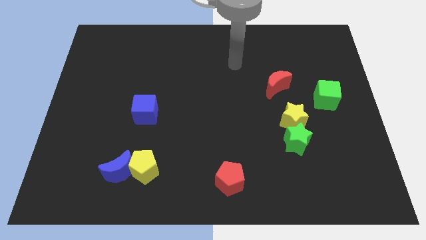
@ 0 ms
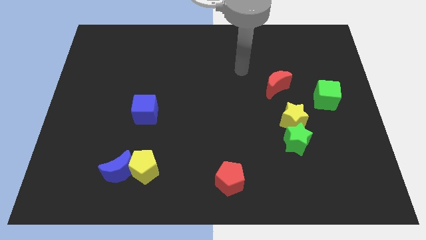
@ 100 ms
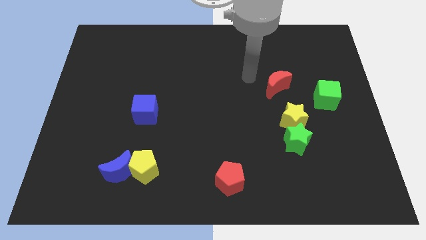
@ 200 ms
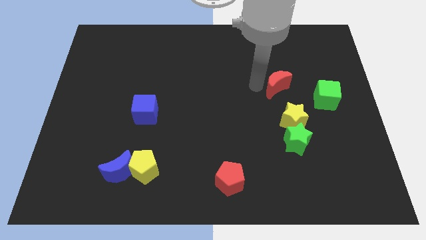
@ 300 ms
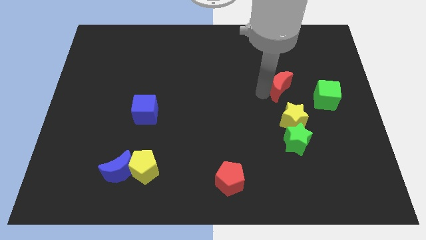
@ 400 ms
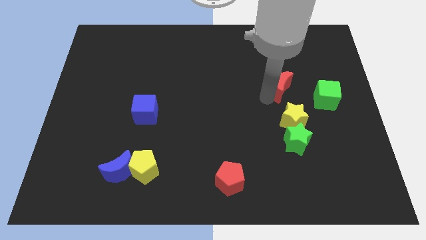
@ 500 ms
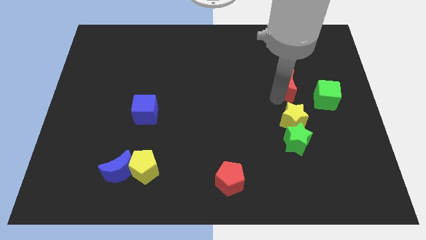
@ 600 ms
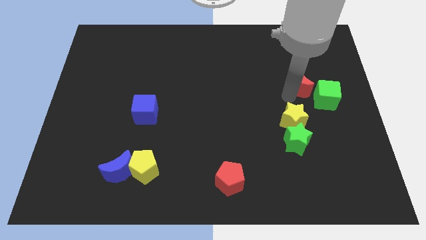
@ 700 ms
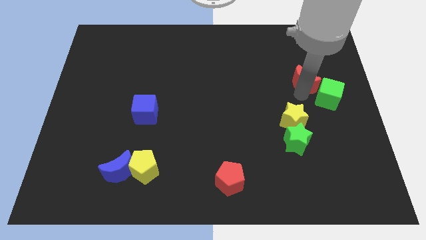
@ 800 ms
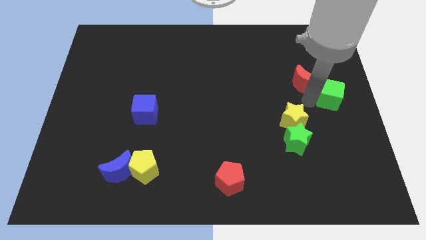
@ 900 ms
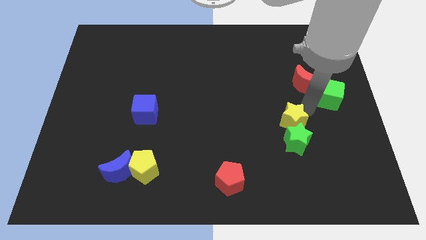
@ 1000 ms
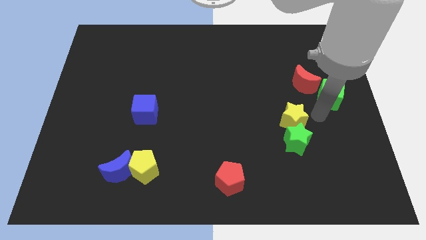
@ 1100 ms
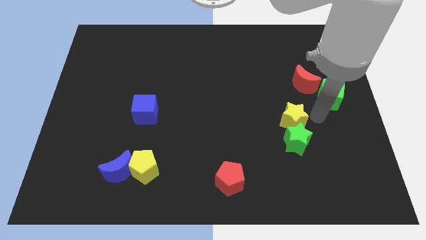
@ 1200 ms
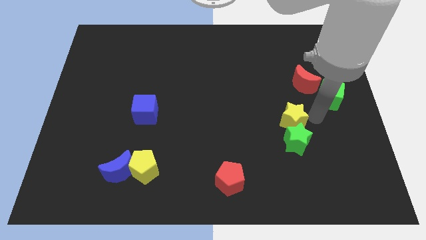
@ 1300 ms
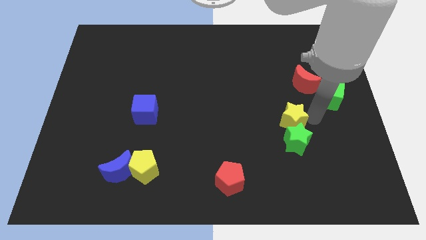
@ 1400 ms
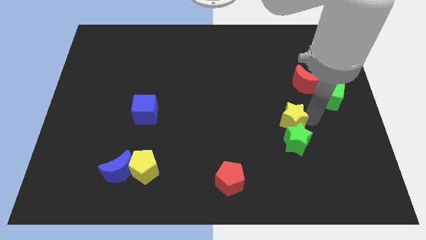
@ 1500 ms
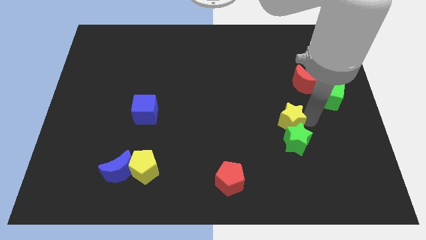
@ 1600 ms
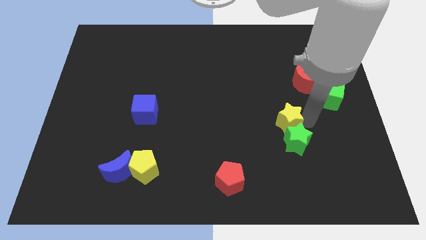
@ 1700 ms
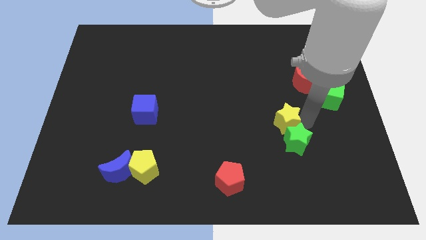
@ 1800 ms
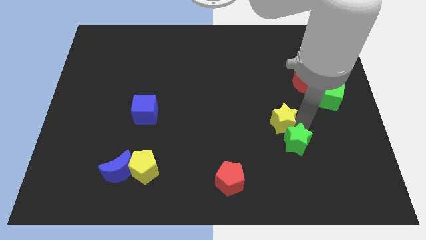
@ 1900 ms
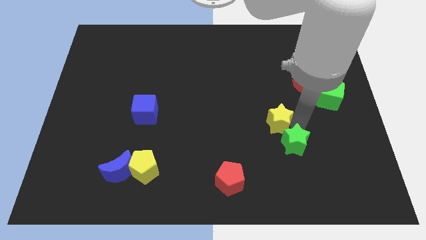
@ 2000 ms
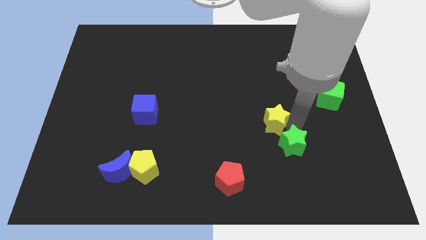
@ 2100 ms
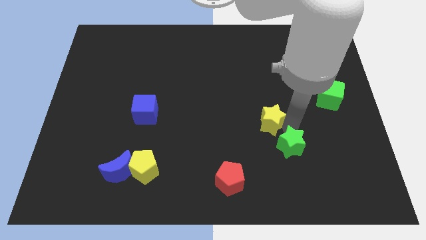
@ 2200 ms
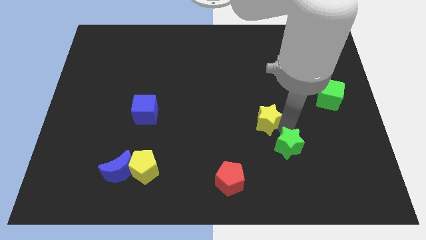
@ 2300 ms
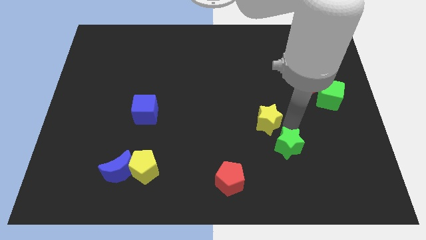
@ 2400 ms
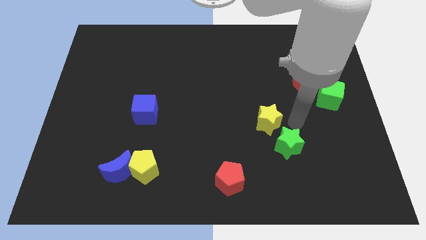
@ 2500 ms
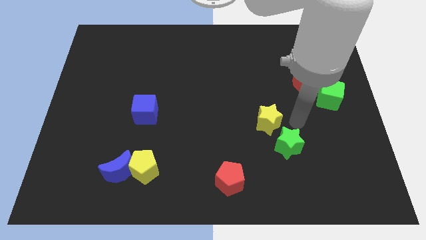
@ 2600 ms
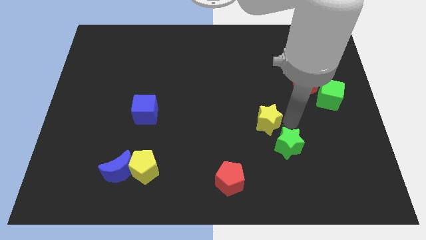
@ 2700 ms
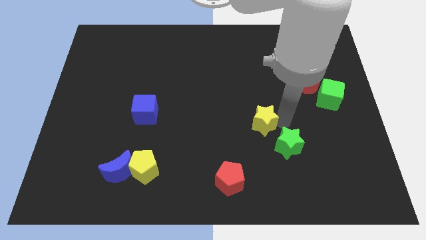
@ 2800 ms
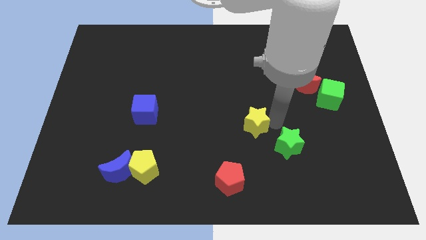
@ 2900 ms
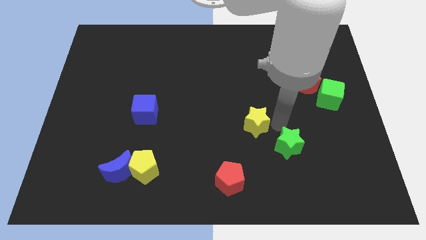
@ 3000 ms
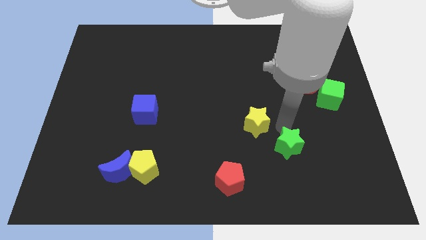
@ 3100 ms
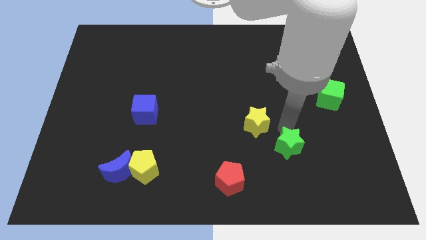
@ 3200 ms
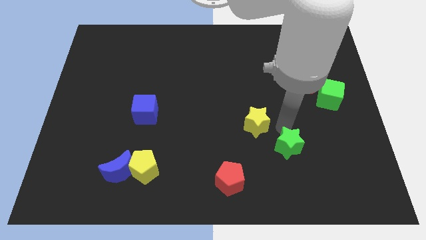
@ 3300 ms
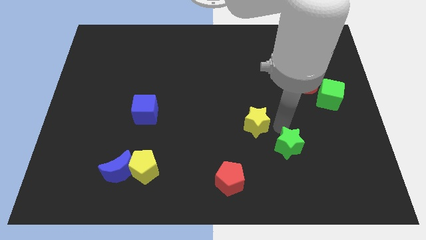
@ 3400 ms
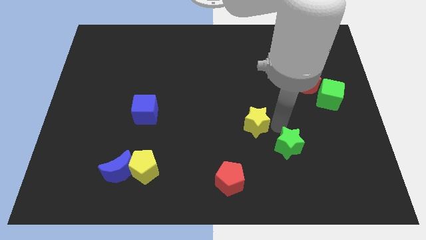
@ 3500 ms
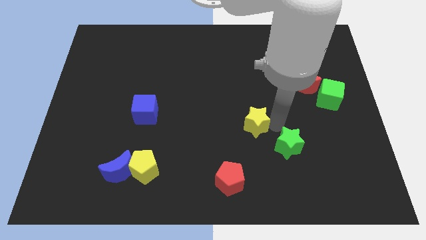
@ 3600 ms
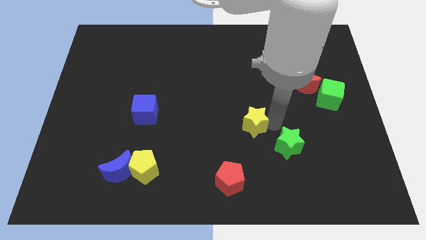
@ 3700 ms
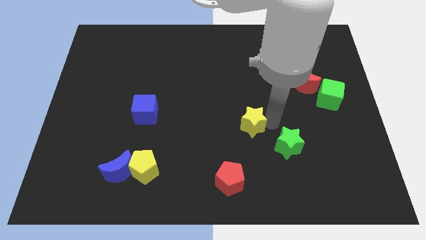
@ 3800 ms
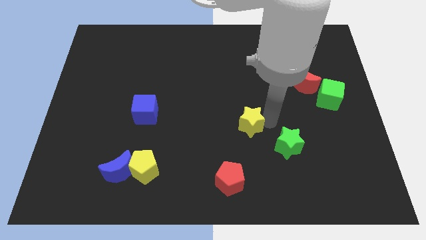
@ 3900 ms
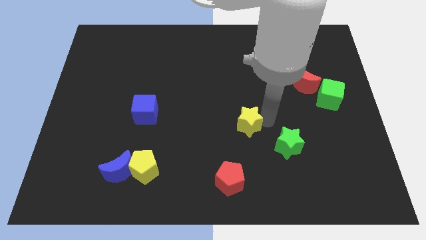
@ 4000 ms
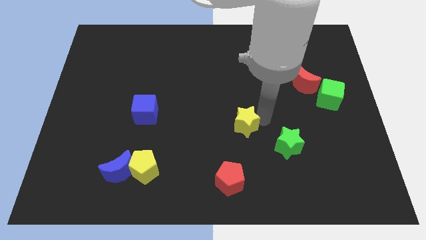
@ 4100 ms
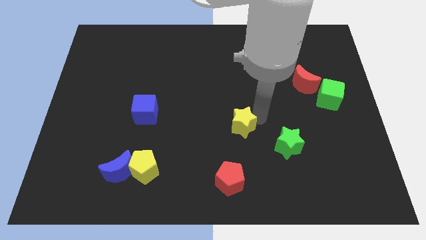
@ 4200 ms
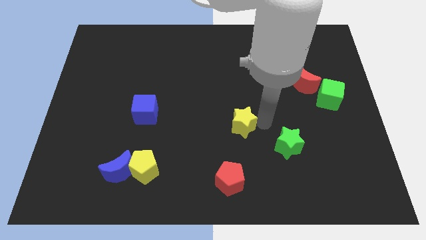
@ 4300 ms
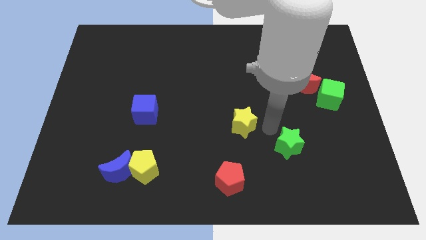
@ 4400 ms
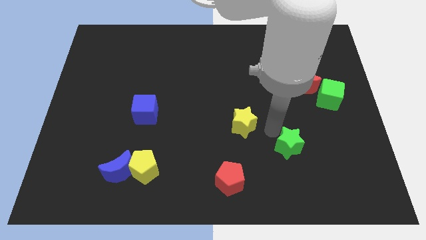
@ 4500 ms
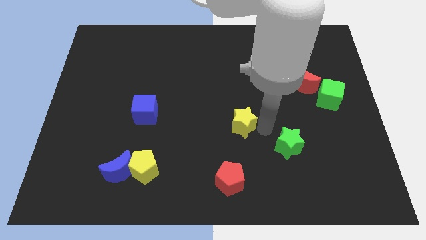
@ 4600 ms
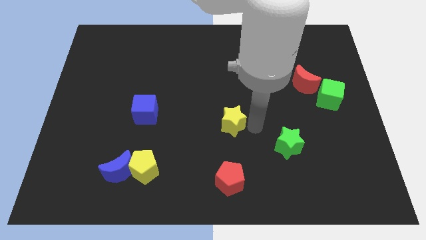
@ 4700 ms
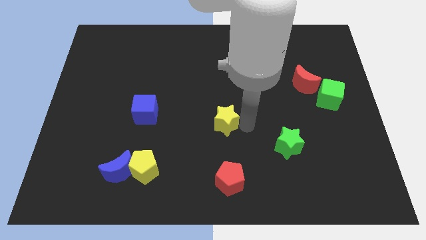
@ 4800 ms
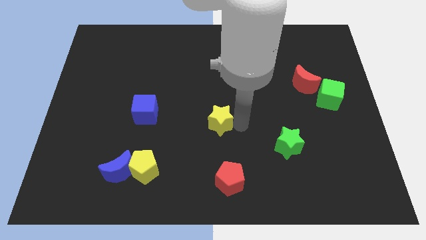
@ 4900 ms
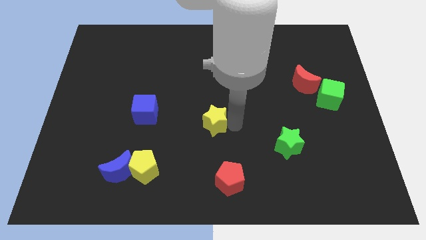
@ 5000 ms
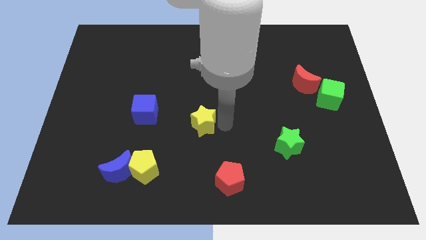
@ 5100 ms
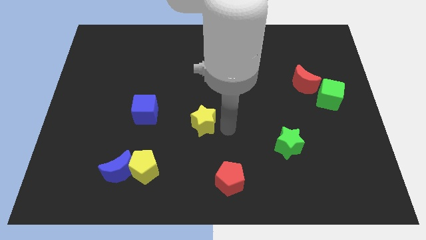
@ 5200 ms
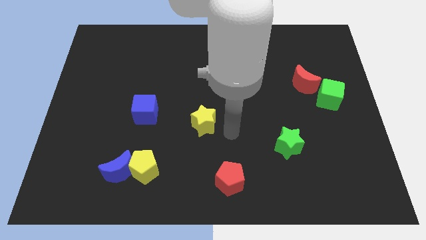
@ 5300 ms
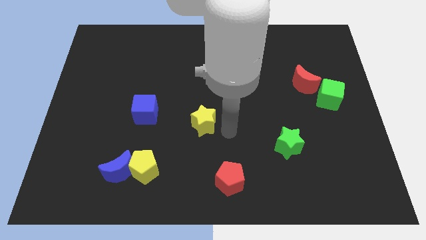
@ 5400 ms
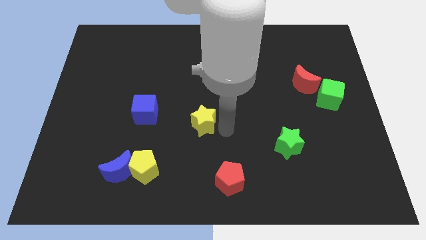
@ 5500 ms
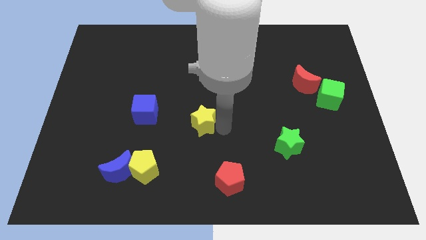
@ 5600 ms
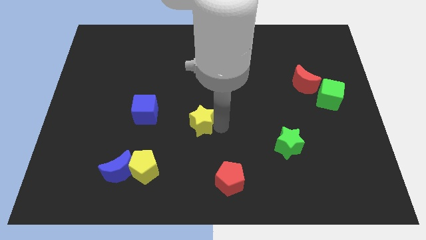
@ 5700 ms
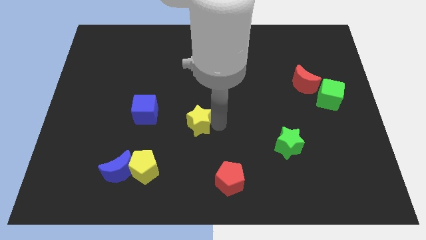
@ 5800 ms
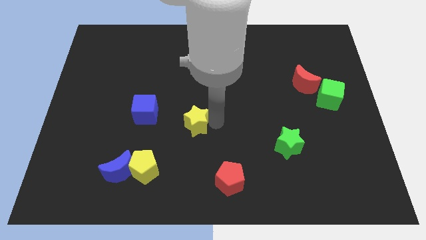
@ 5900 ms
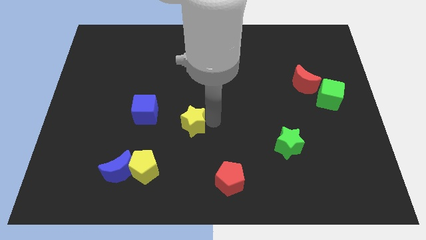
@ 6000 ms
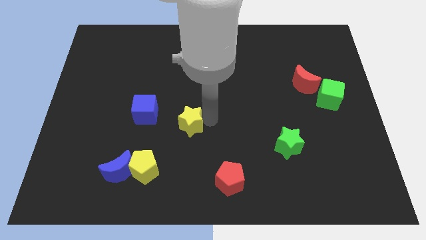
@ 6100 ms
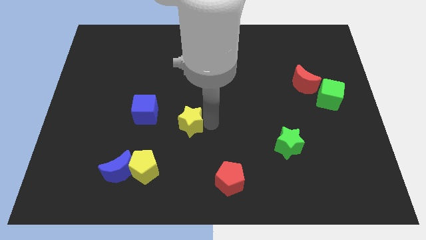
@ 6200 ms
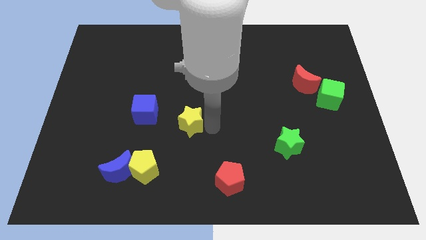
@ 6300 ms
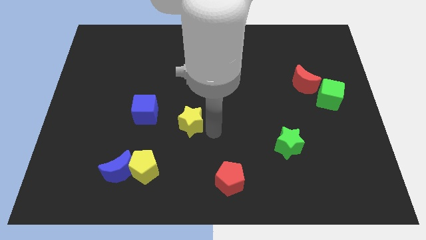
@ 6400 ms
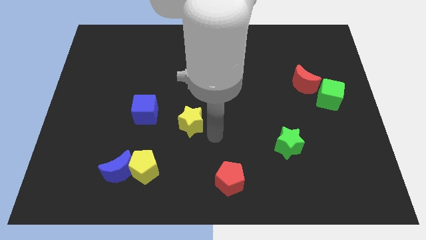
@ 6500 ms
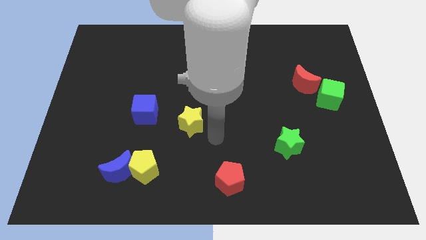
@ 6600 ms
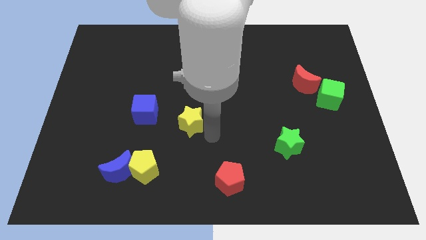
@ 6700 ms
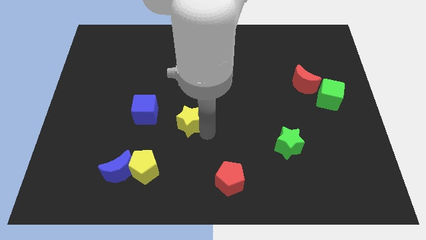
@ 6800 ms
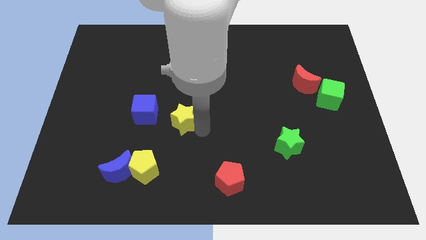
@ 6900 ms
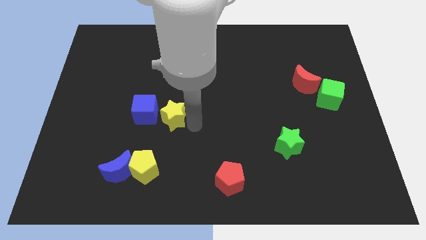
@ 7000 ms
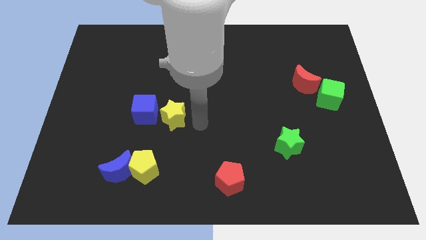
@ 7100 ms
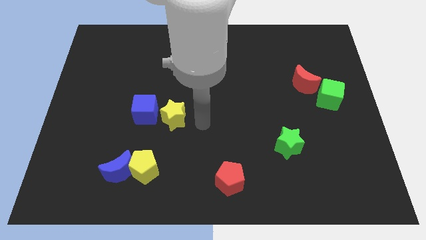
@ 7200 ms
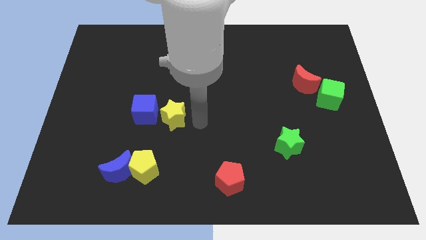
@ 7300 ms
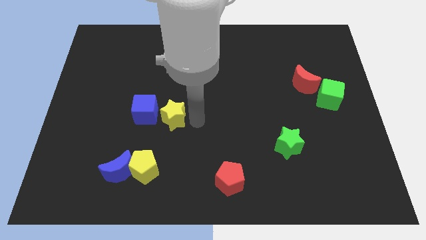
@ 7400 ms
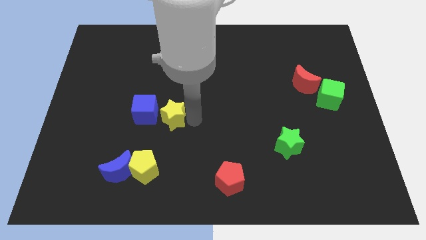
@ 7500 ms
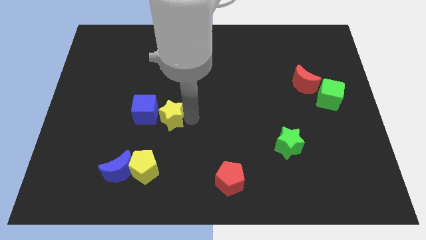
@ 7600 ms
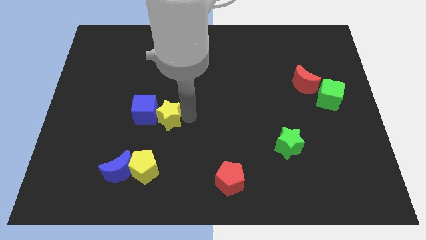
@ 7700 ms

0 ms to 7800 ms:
move the yellow star to the blue cube
